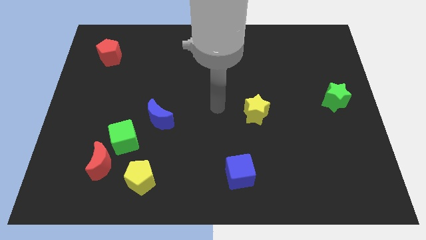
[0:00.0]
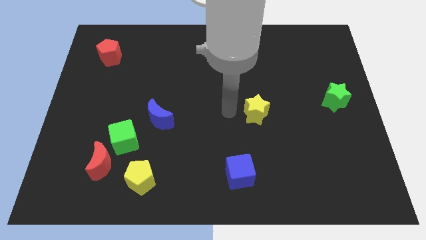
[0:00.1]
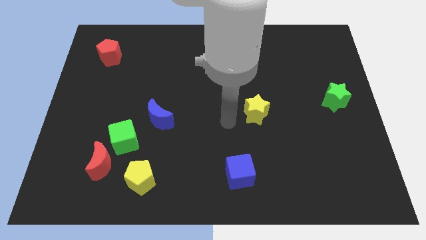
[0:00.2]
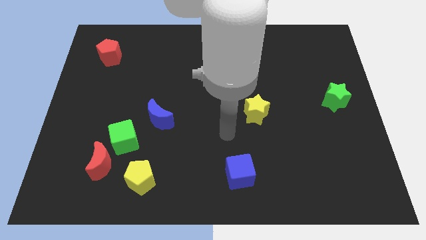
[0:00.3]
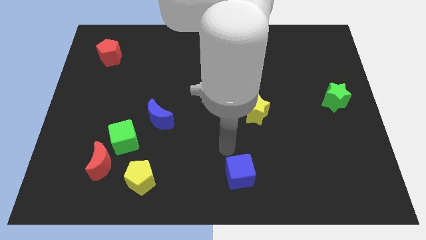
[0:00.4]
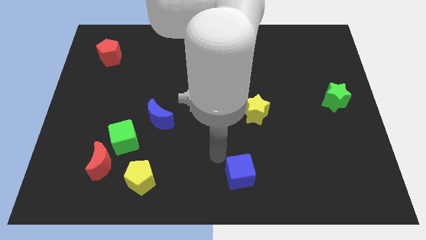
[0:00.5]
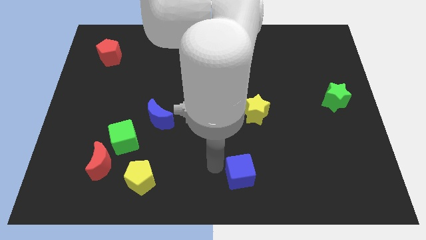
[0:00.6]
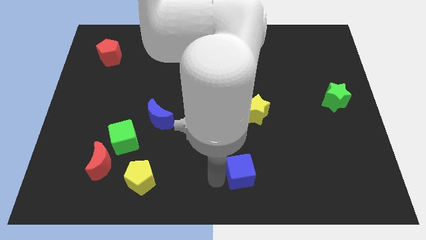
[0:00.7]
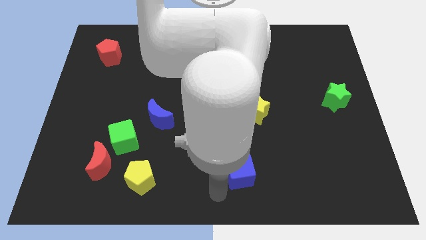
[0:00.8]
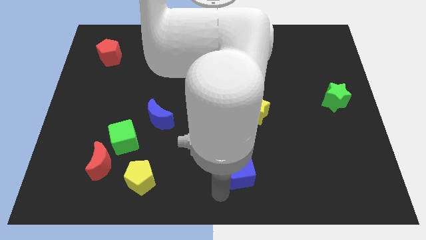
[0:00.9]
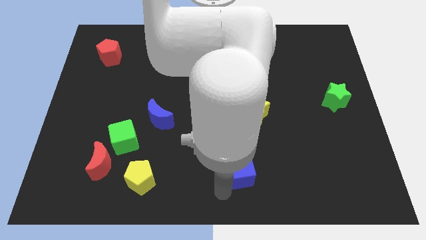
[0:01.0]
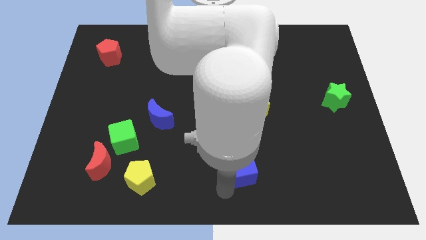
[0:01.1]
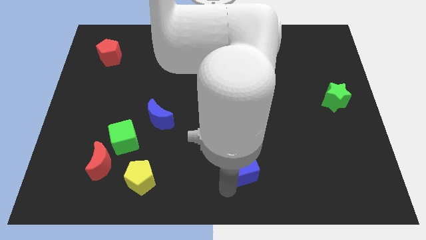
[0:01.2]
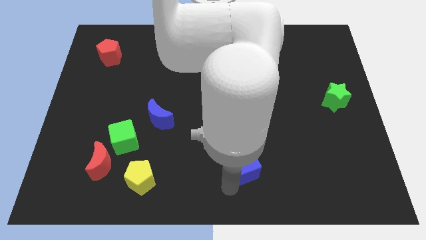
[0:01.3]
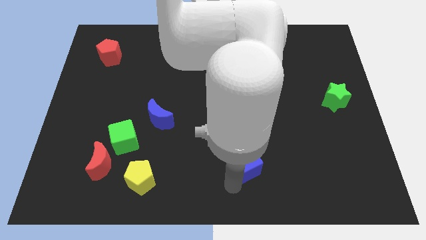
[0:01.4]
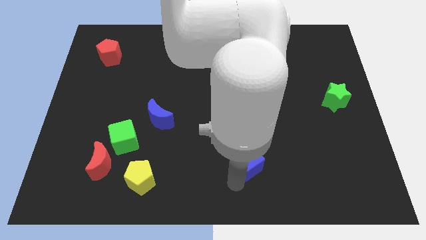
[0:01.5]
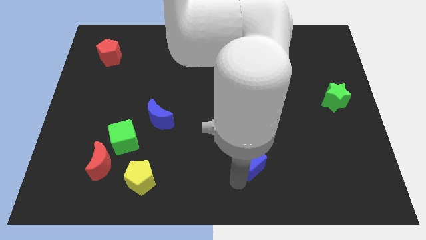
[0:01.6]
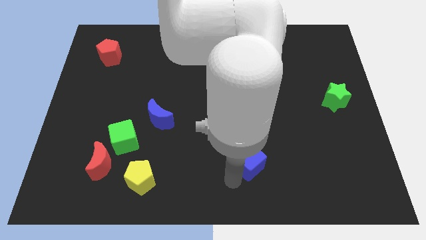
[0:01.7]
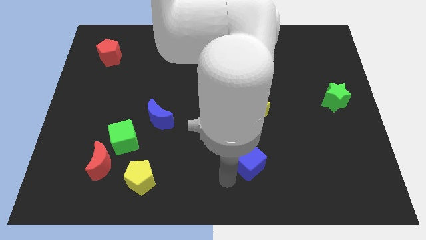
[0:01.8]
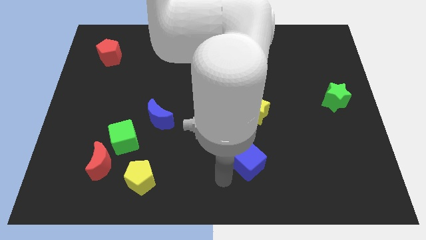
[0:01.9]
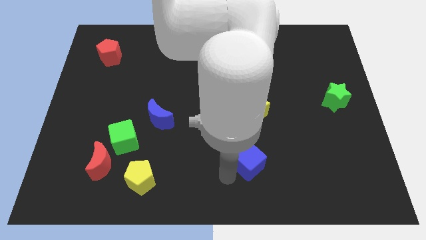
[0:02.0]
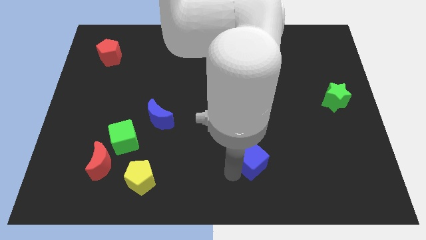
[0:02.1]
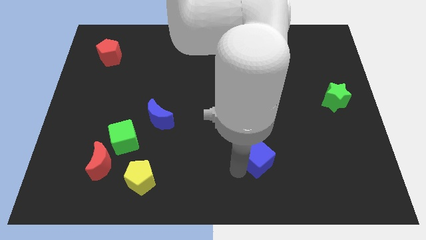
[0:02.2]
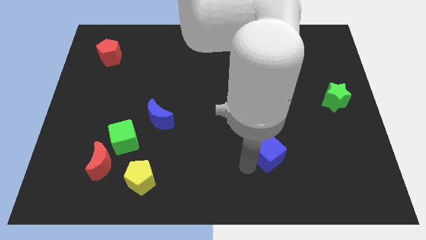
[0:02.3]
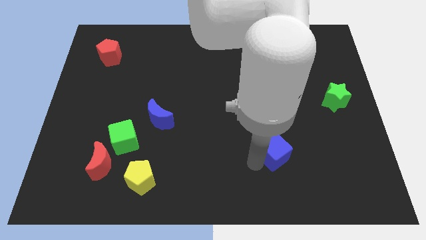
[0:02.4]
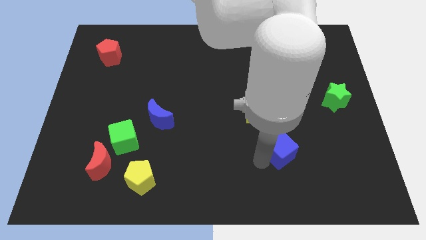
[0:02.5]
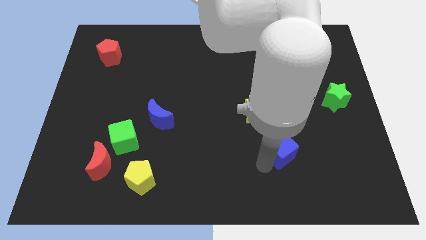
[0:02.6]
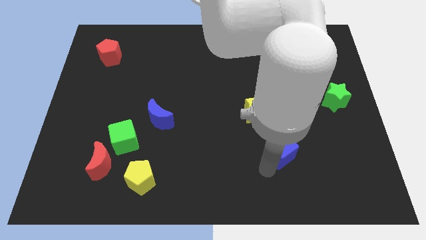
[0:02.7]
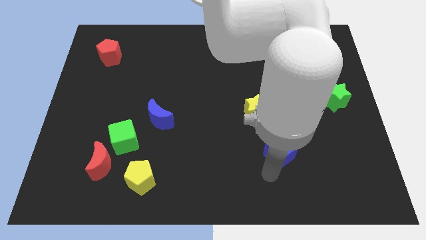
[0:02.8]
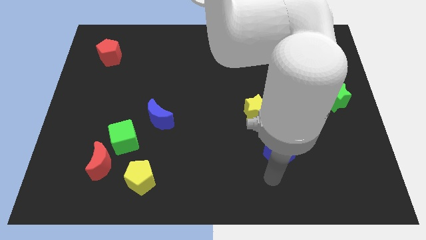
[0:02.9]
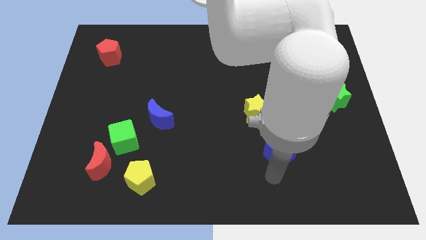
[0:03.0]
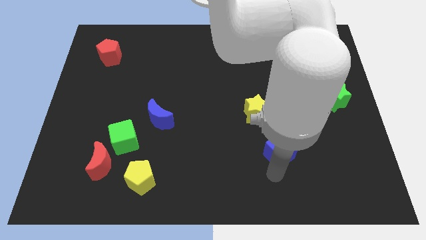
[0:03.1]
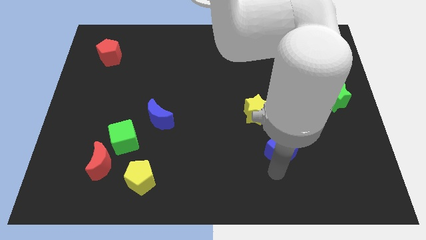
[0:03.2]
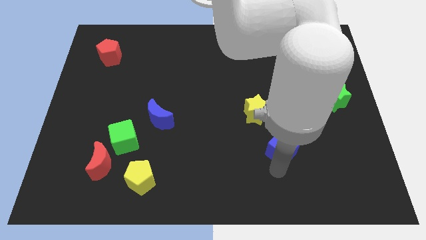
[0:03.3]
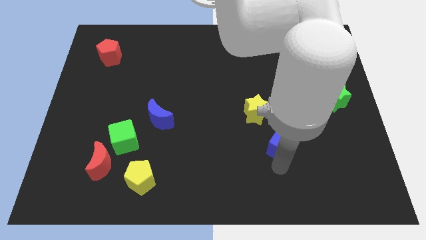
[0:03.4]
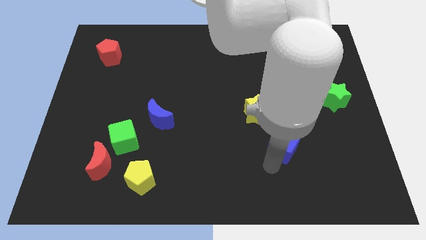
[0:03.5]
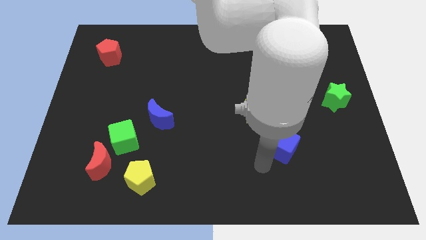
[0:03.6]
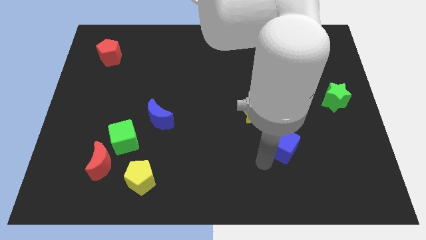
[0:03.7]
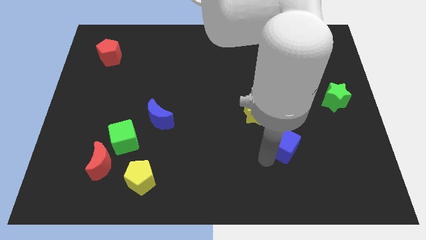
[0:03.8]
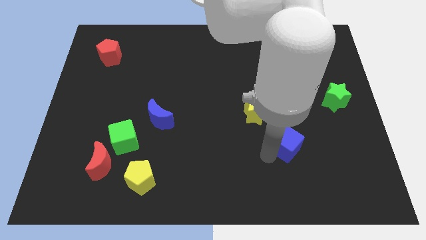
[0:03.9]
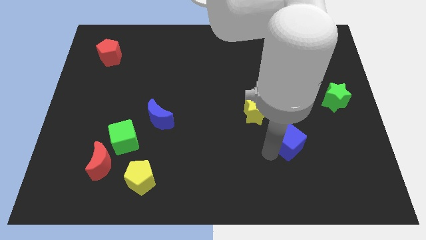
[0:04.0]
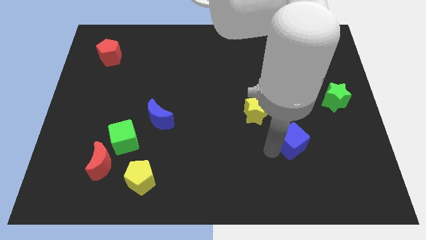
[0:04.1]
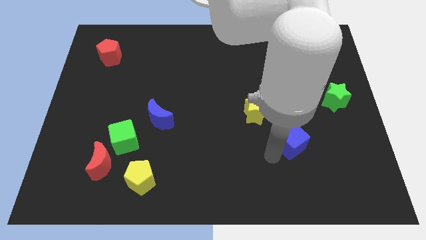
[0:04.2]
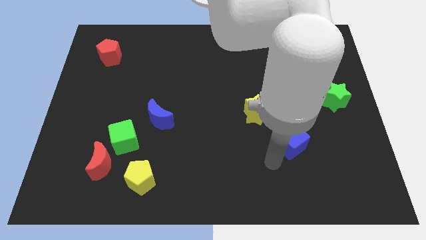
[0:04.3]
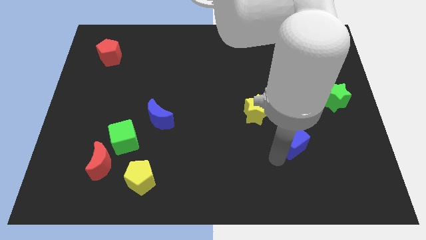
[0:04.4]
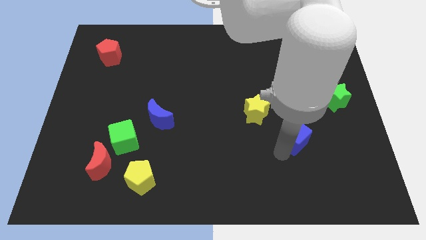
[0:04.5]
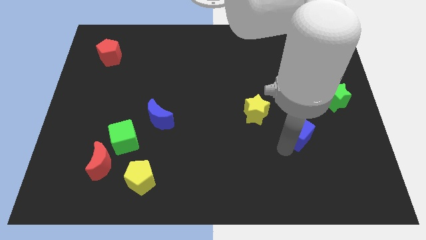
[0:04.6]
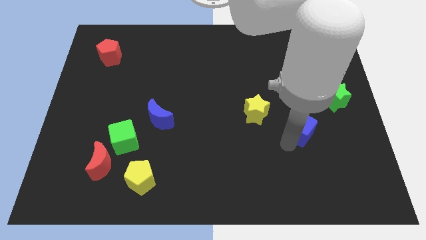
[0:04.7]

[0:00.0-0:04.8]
move the blue cube diagonally down and to the left of the green star

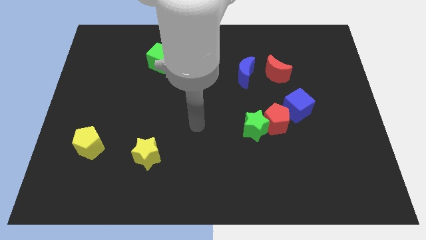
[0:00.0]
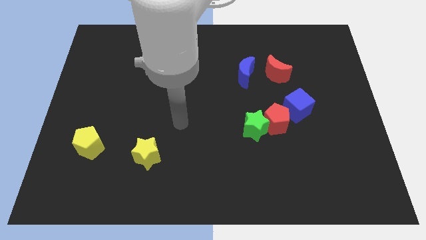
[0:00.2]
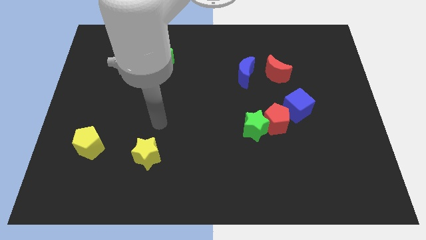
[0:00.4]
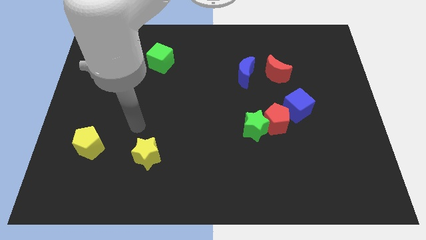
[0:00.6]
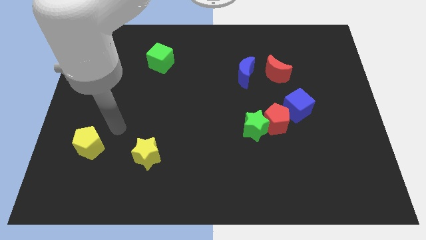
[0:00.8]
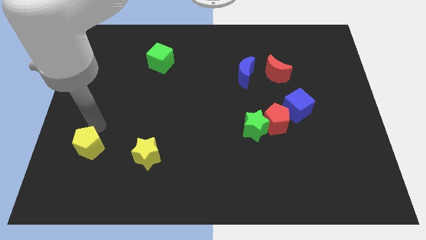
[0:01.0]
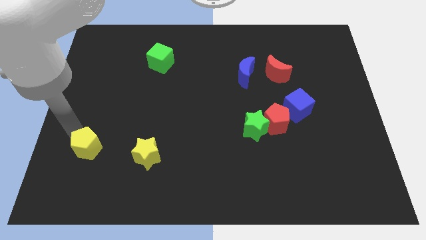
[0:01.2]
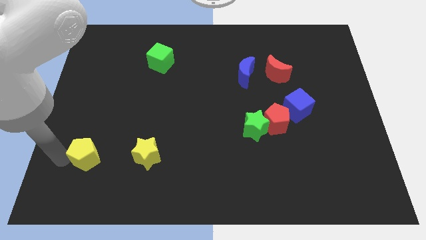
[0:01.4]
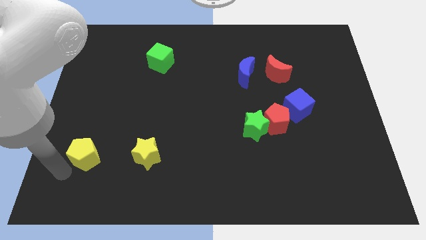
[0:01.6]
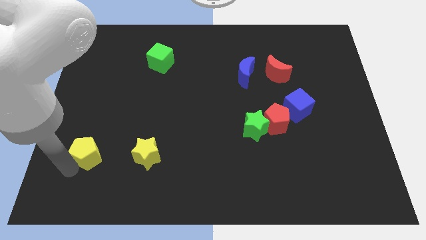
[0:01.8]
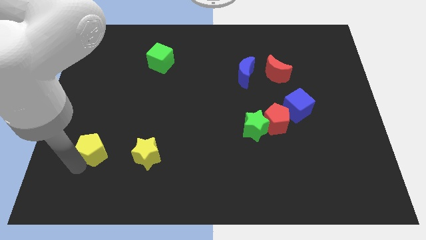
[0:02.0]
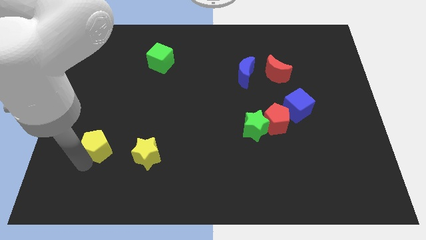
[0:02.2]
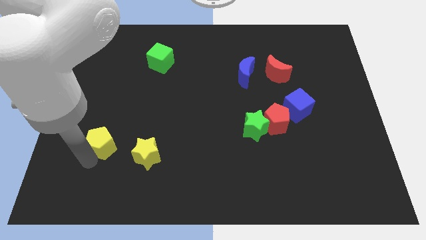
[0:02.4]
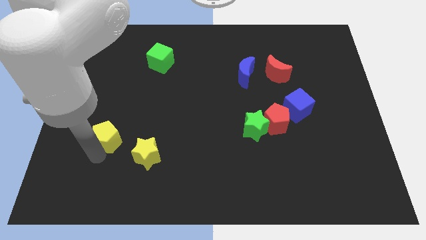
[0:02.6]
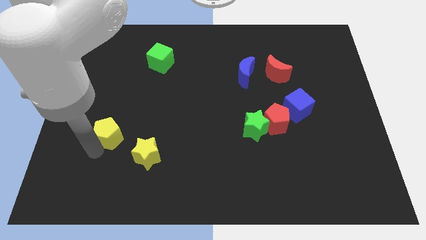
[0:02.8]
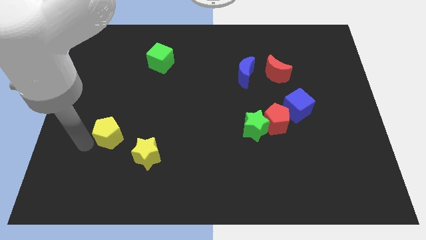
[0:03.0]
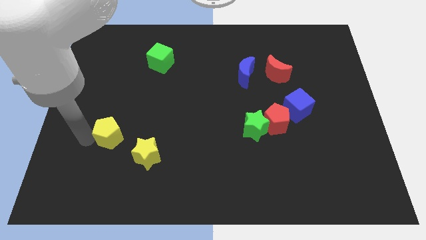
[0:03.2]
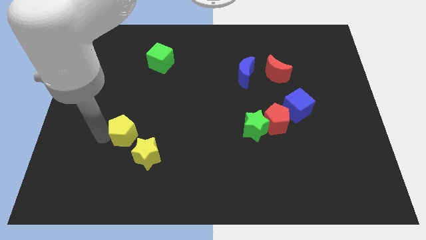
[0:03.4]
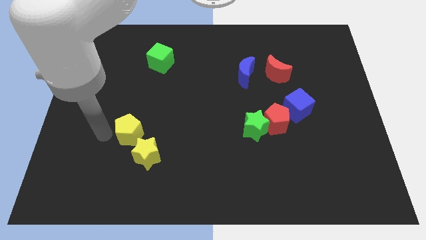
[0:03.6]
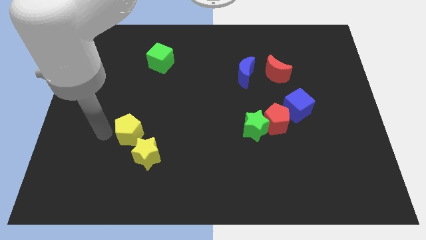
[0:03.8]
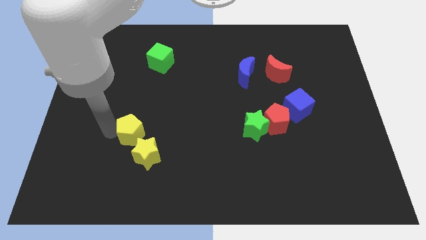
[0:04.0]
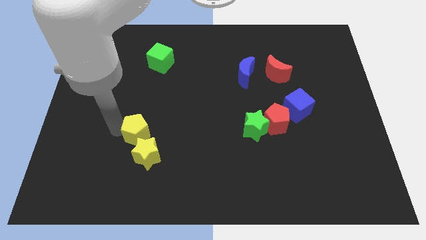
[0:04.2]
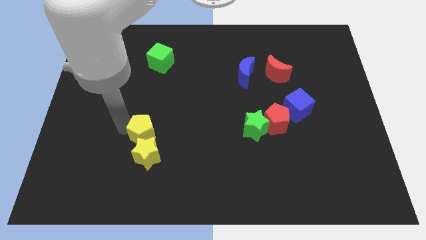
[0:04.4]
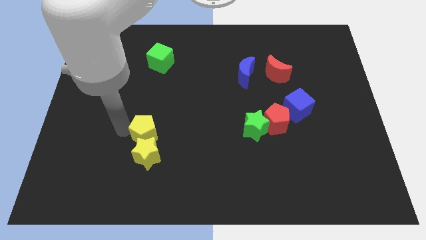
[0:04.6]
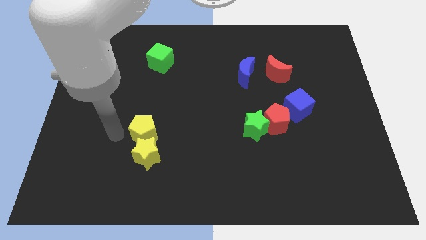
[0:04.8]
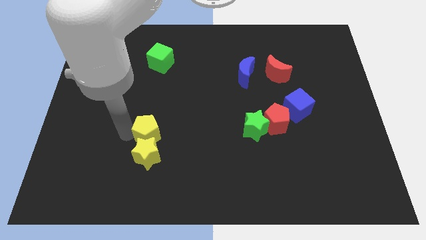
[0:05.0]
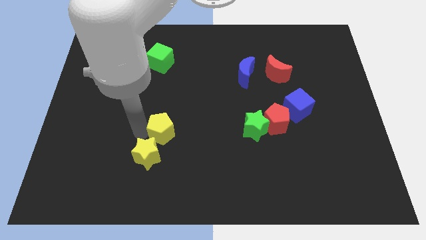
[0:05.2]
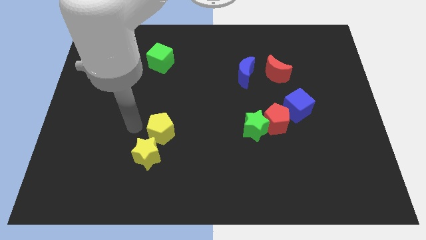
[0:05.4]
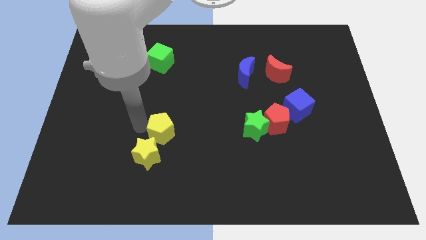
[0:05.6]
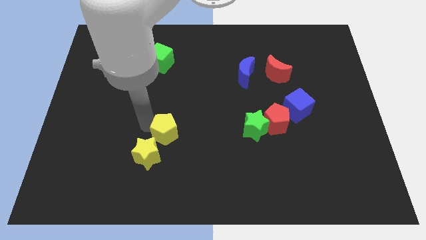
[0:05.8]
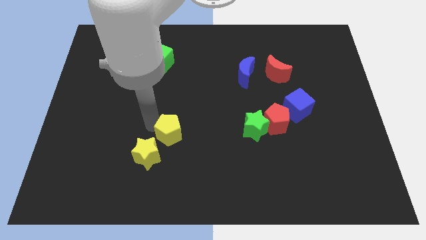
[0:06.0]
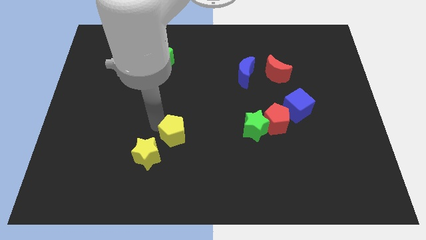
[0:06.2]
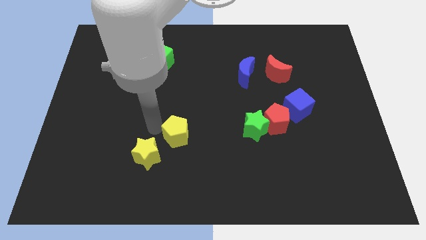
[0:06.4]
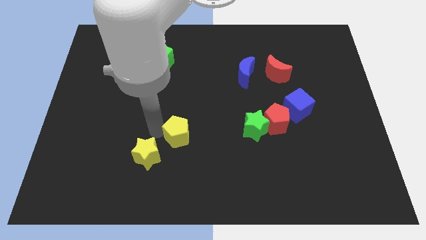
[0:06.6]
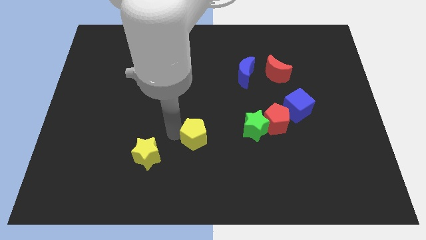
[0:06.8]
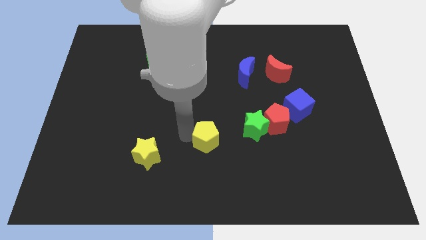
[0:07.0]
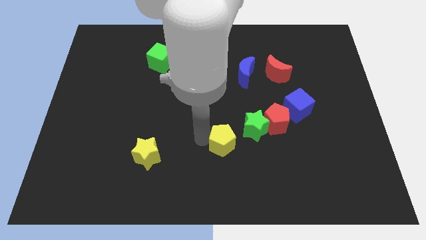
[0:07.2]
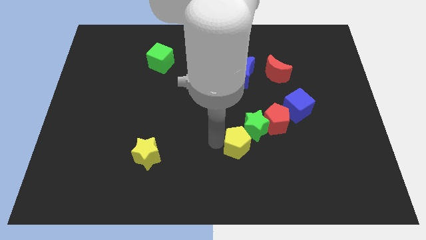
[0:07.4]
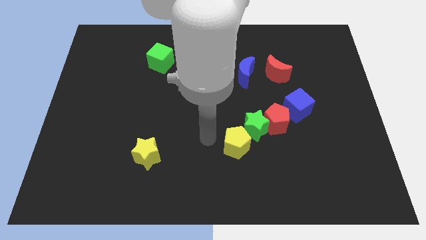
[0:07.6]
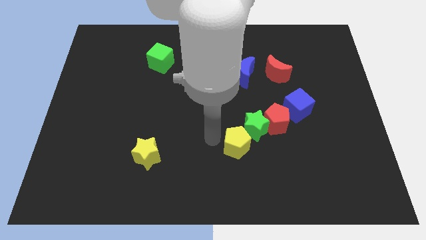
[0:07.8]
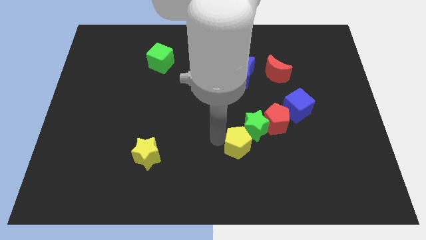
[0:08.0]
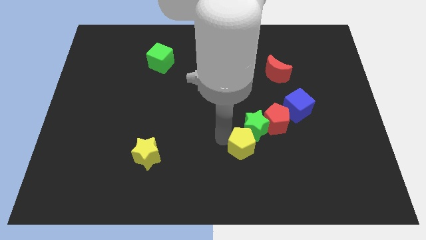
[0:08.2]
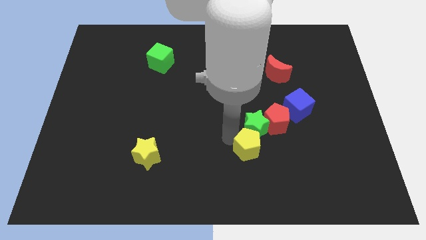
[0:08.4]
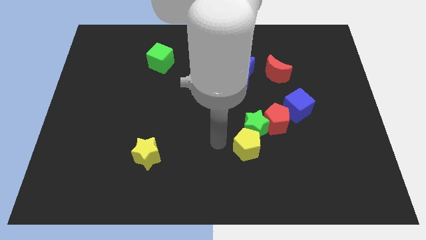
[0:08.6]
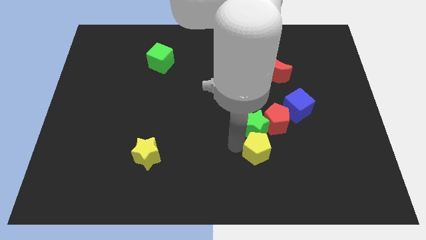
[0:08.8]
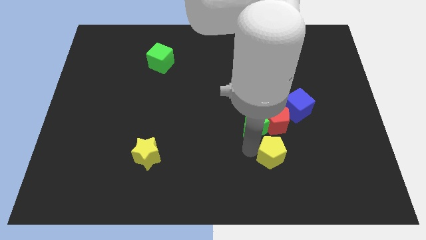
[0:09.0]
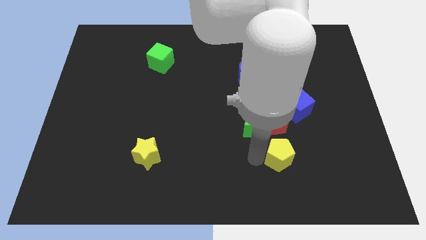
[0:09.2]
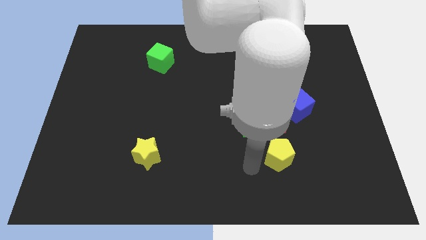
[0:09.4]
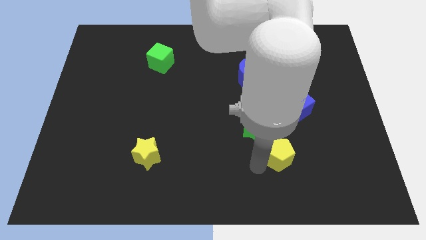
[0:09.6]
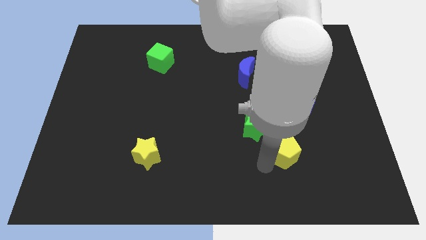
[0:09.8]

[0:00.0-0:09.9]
put the yellow pentagon below the blue cube
